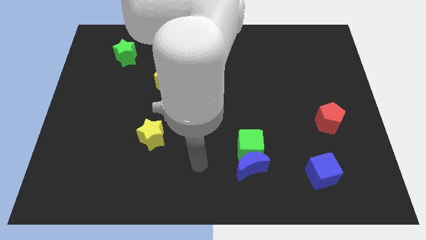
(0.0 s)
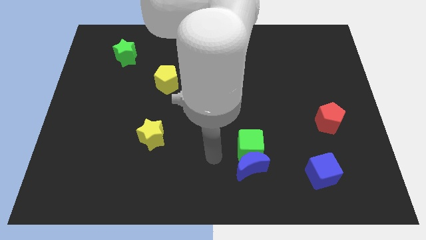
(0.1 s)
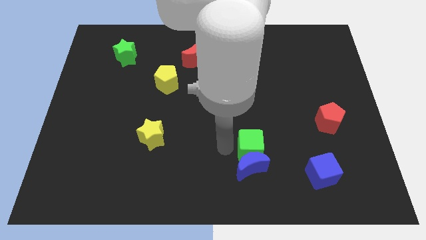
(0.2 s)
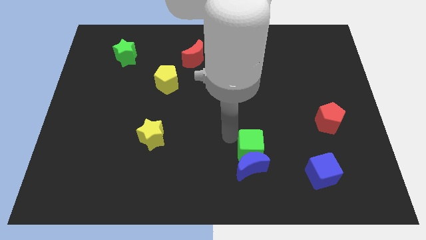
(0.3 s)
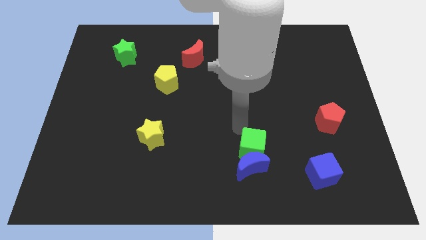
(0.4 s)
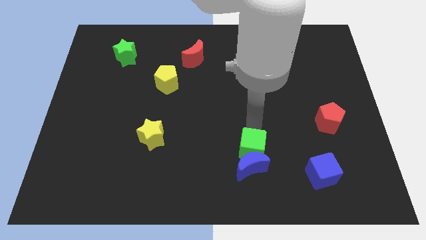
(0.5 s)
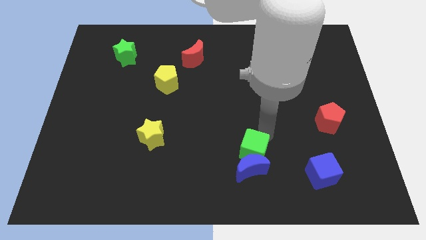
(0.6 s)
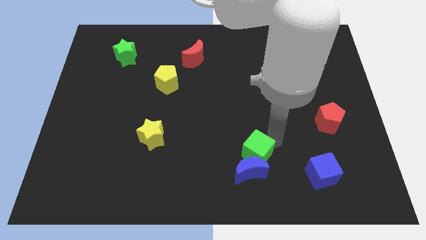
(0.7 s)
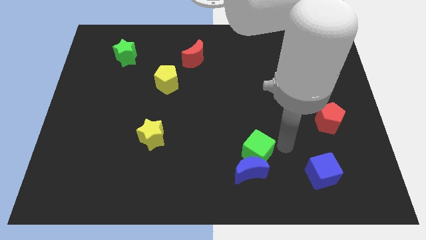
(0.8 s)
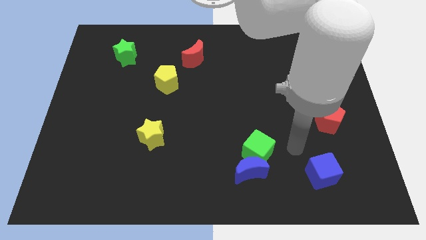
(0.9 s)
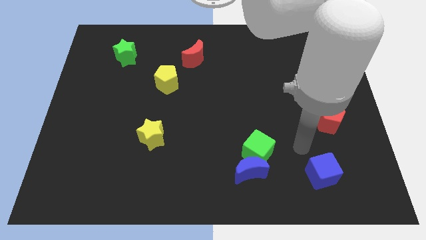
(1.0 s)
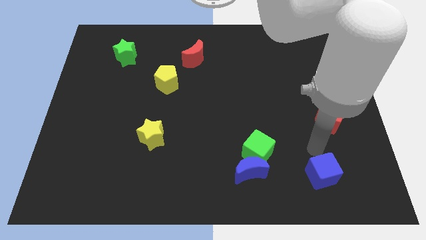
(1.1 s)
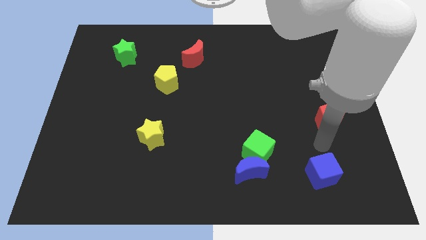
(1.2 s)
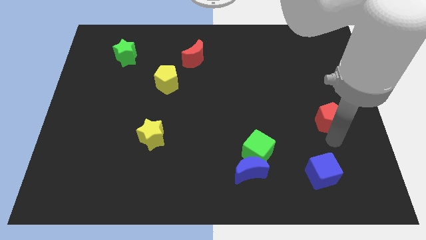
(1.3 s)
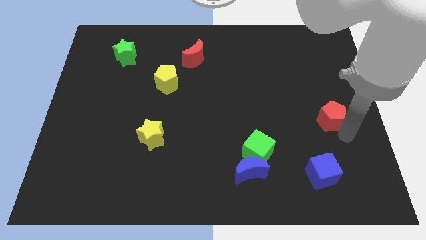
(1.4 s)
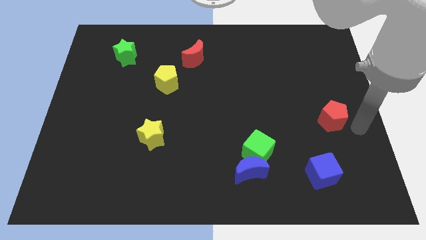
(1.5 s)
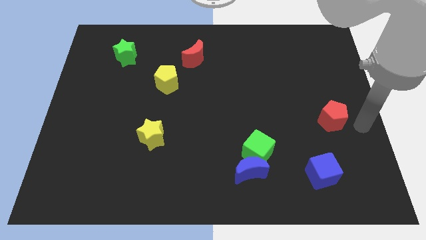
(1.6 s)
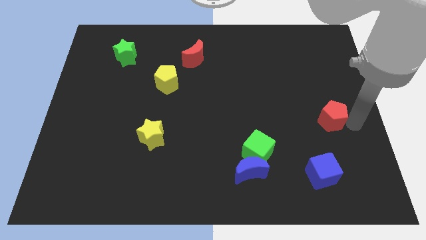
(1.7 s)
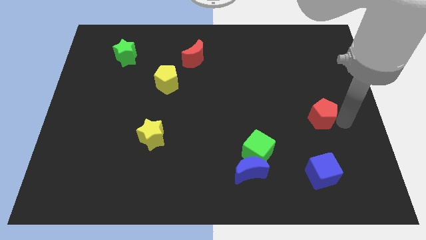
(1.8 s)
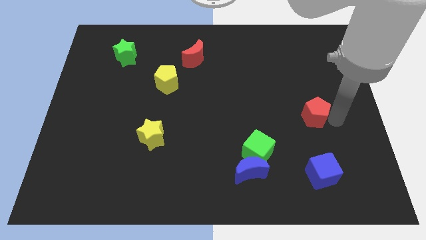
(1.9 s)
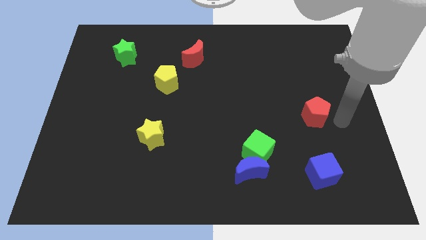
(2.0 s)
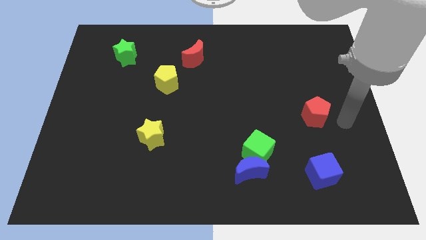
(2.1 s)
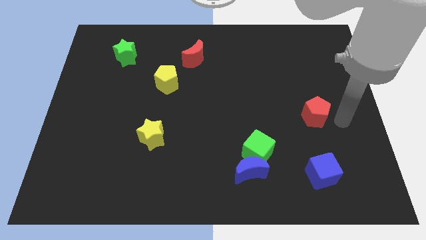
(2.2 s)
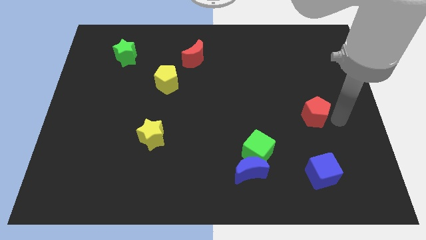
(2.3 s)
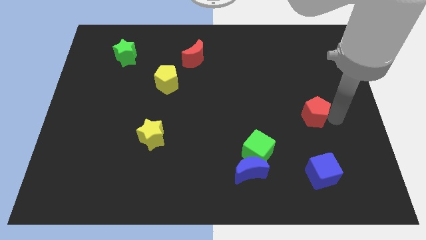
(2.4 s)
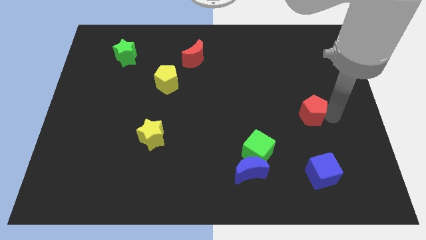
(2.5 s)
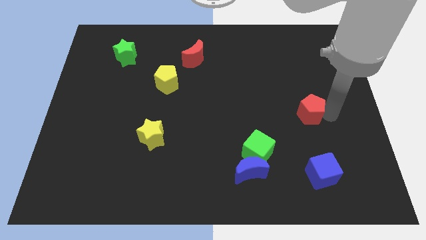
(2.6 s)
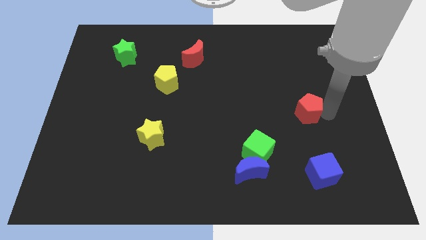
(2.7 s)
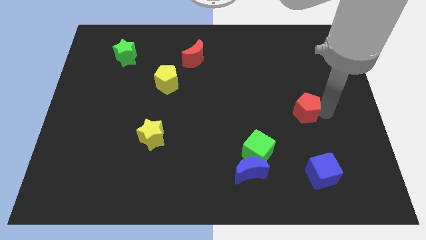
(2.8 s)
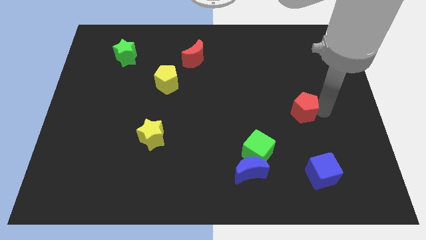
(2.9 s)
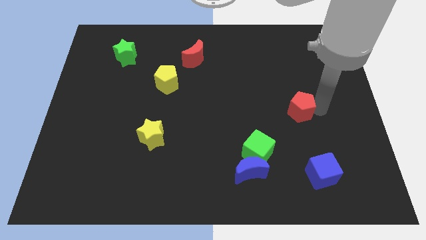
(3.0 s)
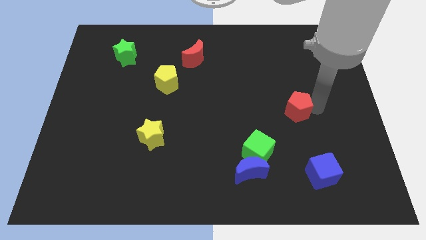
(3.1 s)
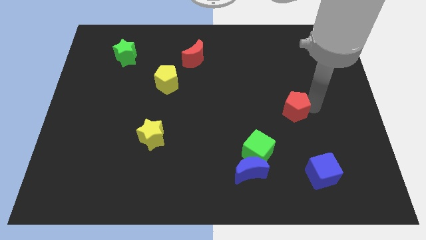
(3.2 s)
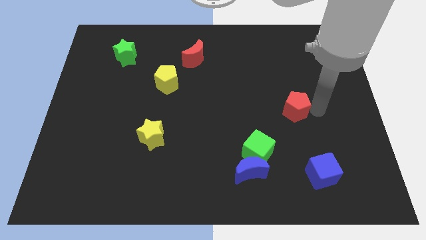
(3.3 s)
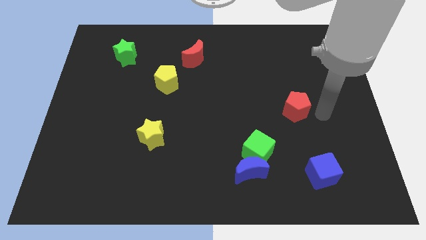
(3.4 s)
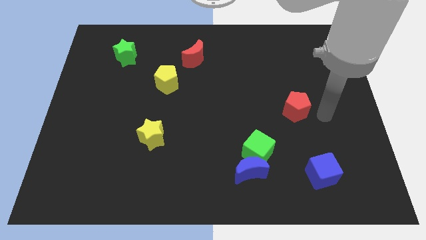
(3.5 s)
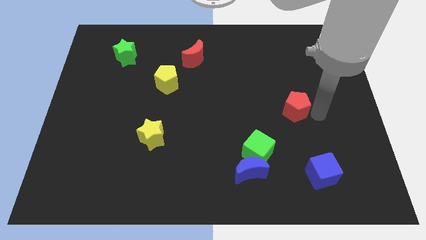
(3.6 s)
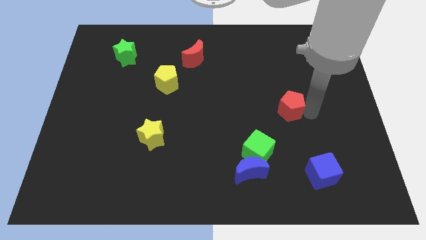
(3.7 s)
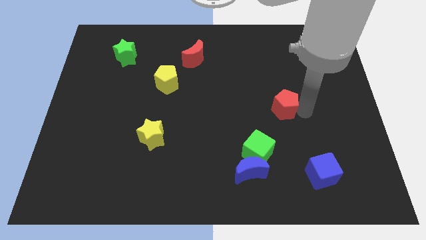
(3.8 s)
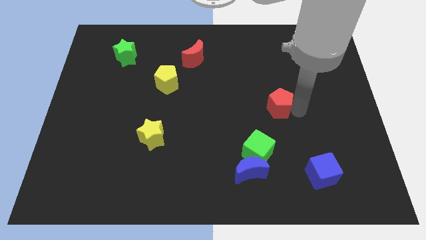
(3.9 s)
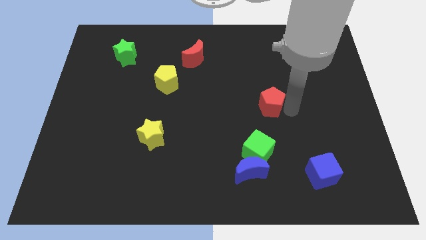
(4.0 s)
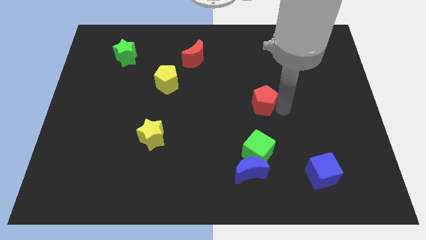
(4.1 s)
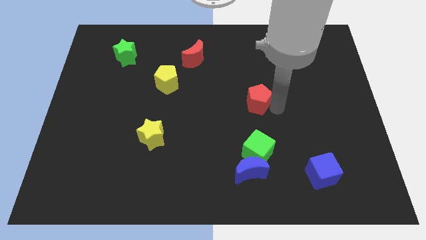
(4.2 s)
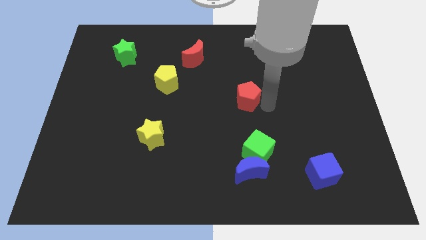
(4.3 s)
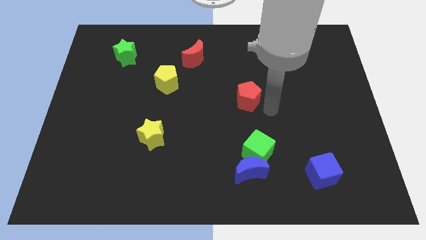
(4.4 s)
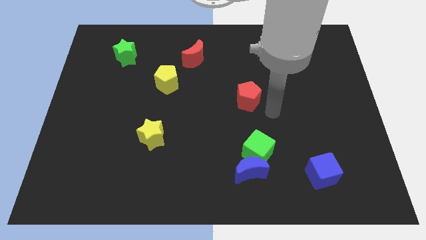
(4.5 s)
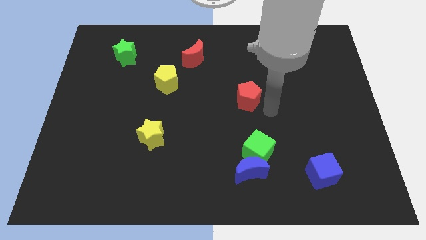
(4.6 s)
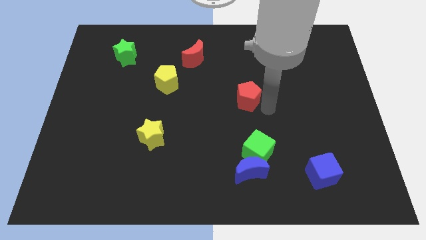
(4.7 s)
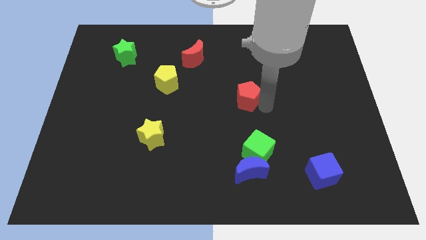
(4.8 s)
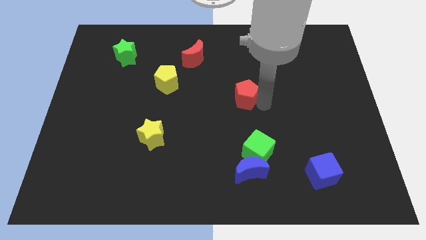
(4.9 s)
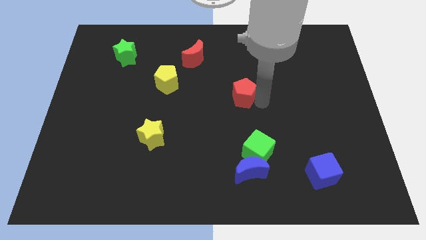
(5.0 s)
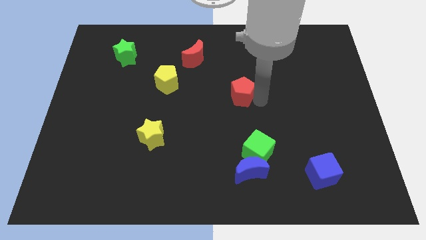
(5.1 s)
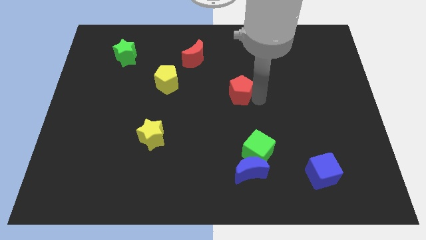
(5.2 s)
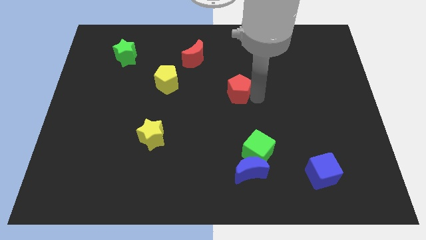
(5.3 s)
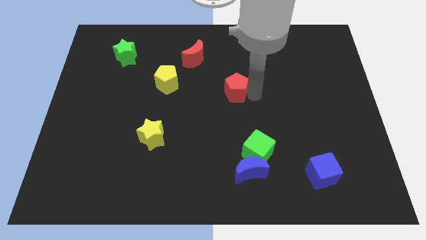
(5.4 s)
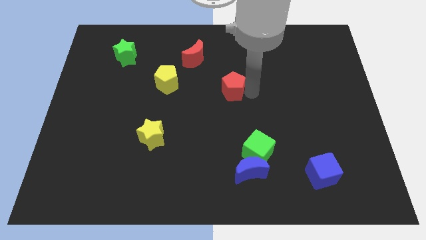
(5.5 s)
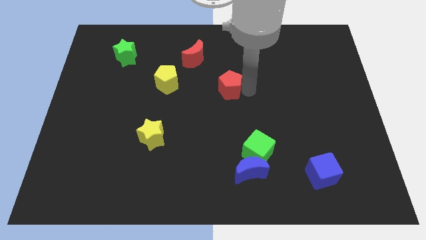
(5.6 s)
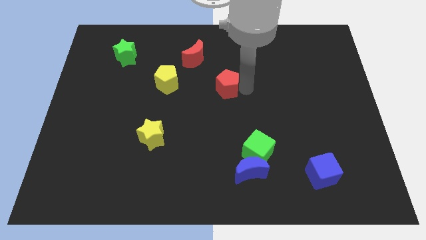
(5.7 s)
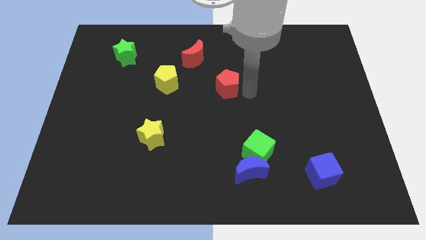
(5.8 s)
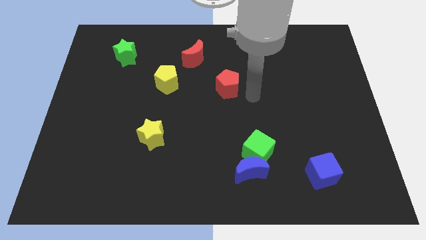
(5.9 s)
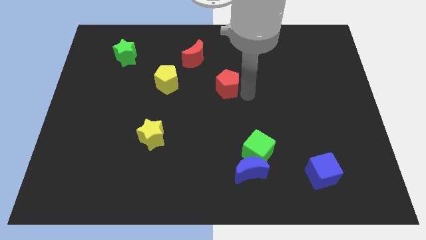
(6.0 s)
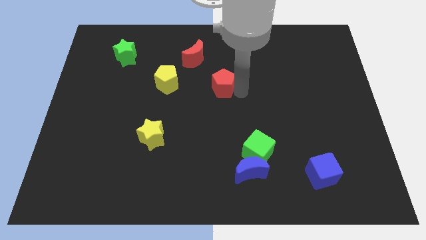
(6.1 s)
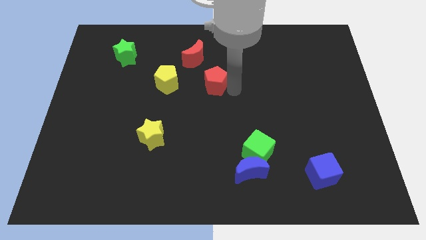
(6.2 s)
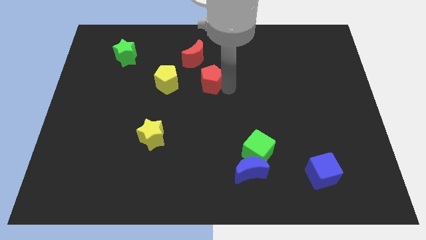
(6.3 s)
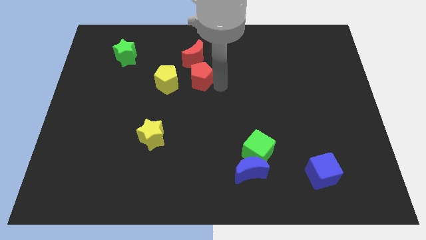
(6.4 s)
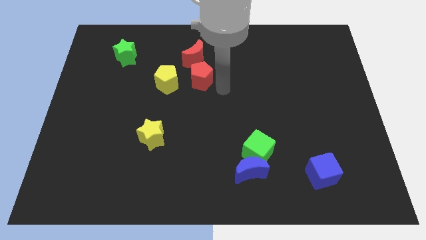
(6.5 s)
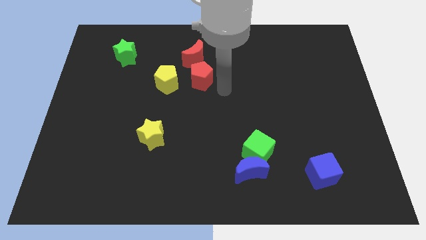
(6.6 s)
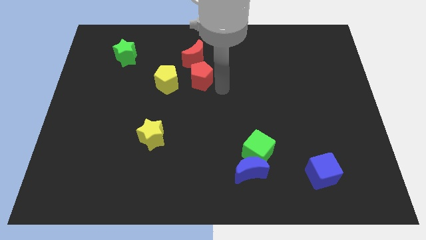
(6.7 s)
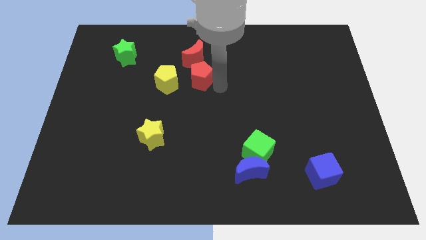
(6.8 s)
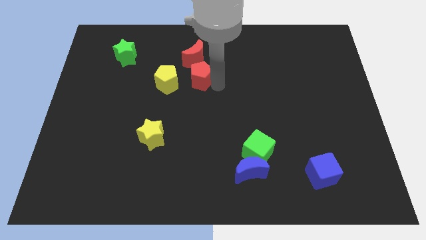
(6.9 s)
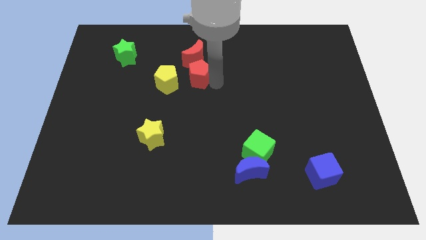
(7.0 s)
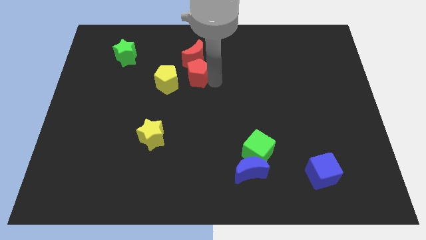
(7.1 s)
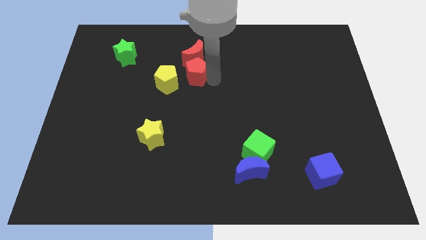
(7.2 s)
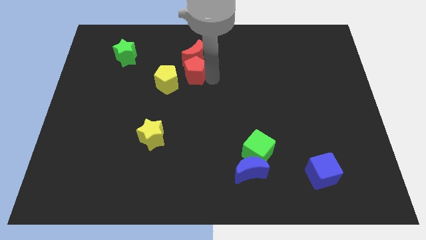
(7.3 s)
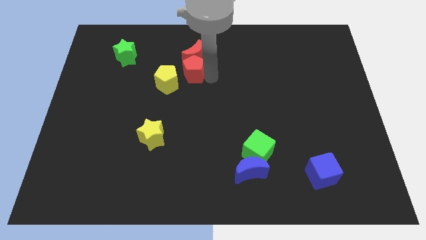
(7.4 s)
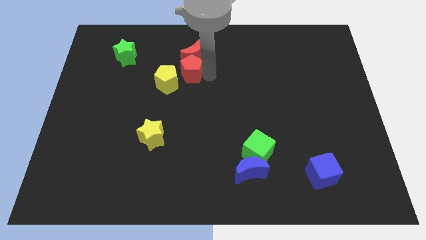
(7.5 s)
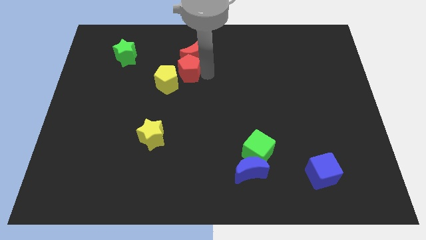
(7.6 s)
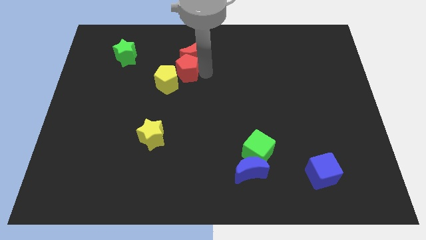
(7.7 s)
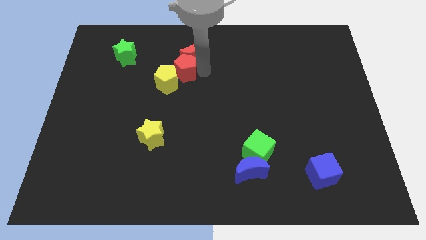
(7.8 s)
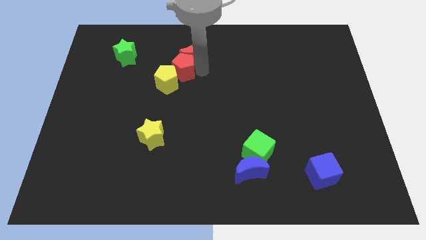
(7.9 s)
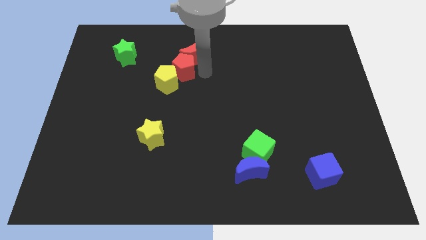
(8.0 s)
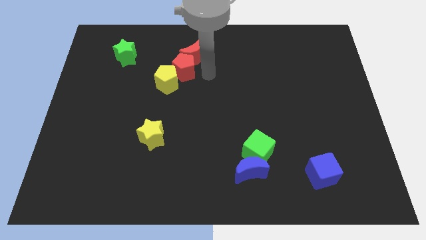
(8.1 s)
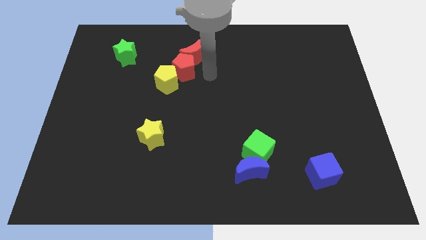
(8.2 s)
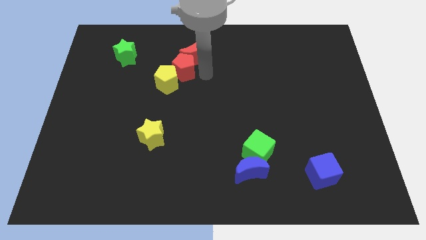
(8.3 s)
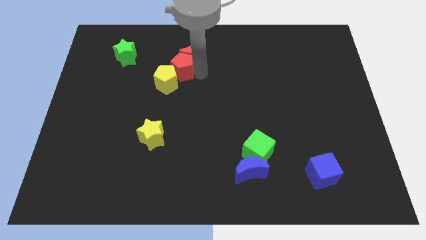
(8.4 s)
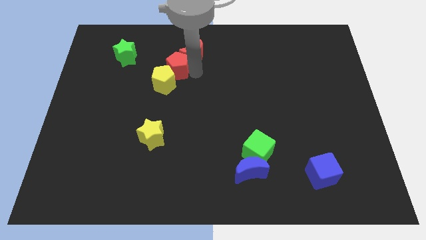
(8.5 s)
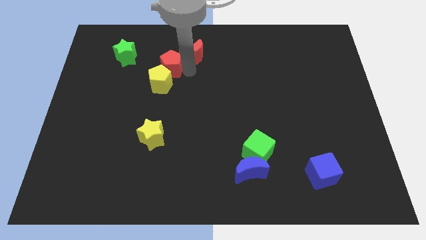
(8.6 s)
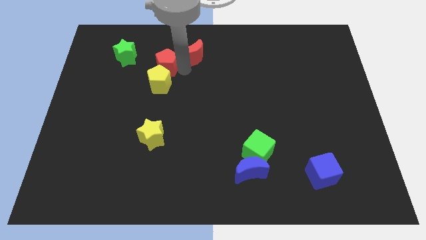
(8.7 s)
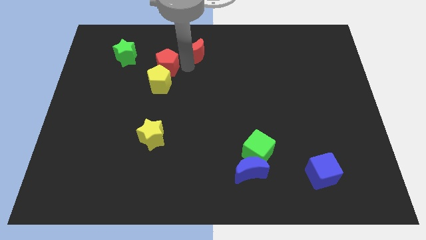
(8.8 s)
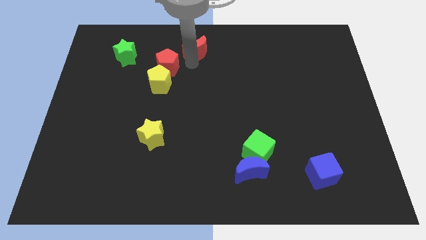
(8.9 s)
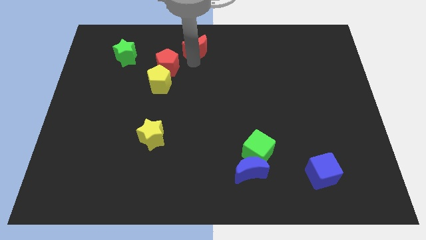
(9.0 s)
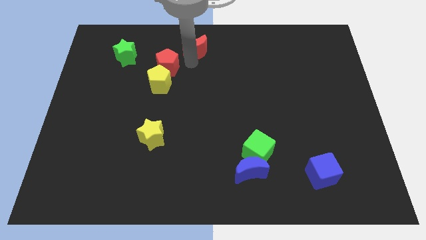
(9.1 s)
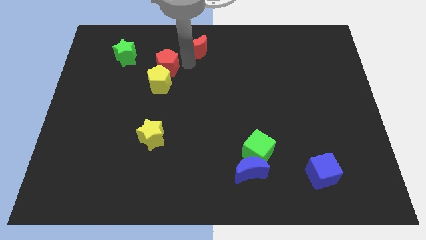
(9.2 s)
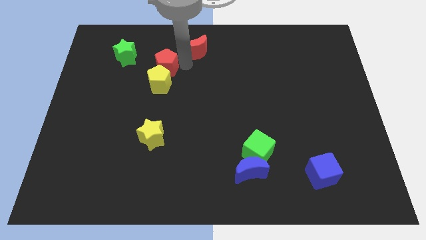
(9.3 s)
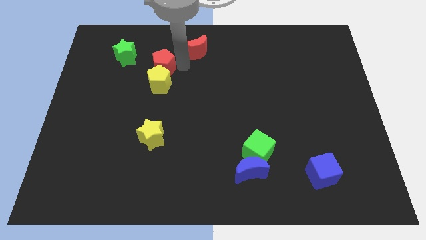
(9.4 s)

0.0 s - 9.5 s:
put the red pentagon to the bottom right of the green star
